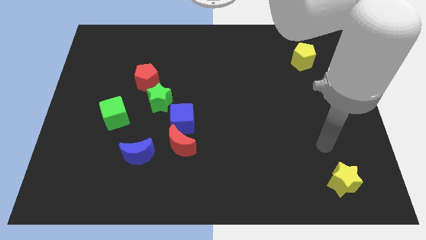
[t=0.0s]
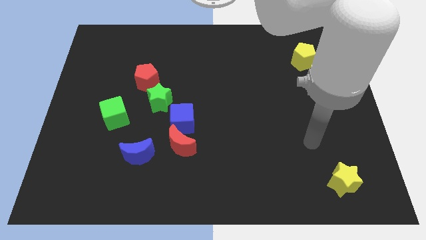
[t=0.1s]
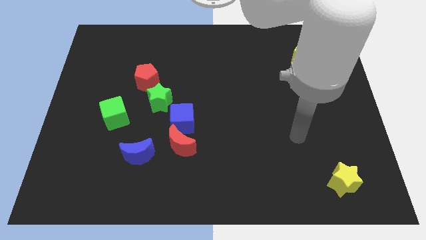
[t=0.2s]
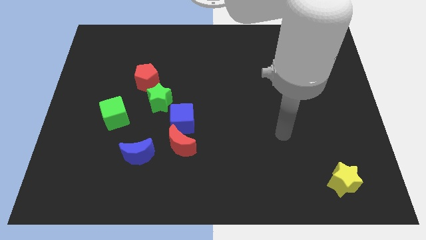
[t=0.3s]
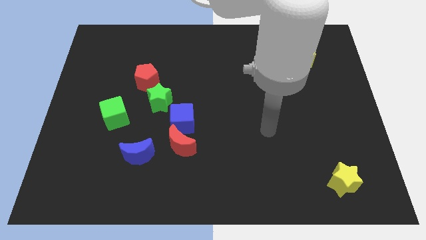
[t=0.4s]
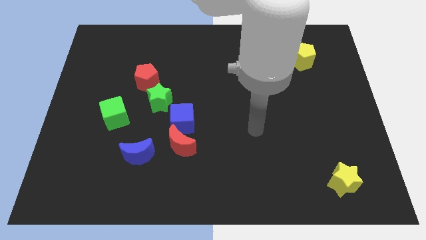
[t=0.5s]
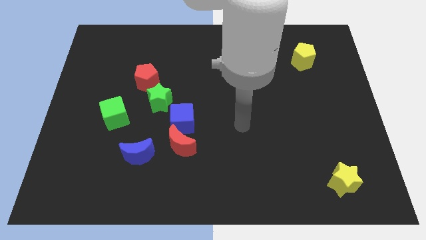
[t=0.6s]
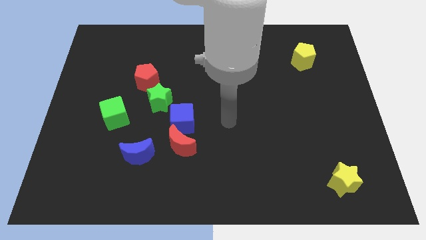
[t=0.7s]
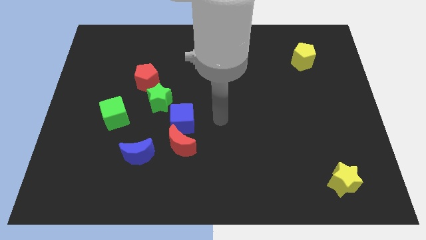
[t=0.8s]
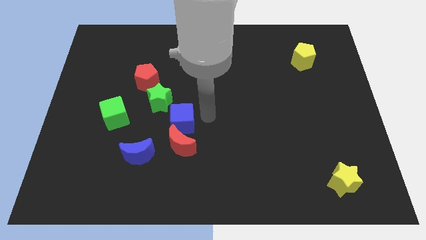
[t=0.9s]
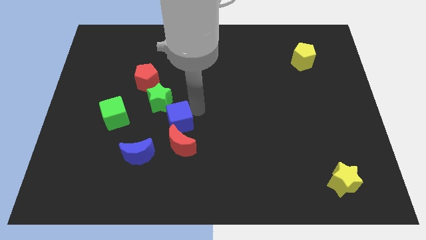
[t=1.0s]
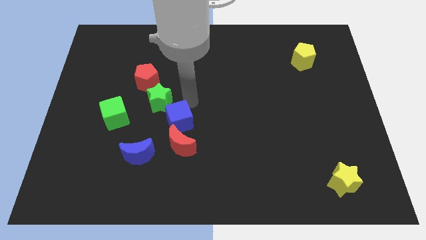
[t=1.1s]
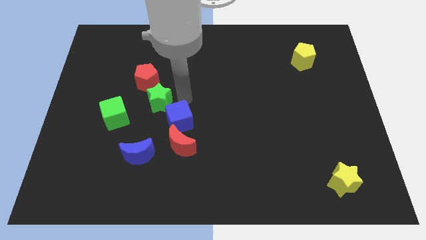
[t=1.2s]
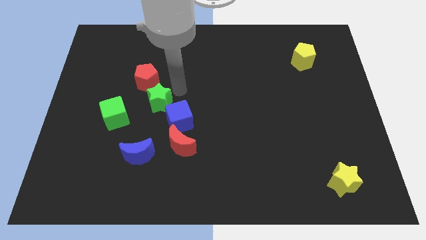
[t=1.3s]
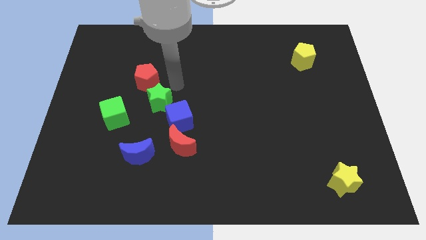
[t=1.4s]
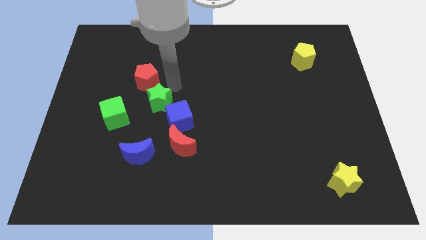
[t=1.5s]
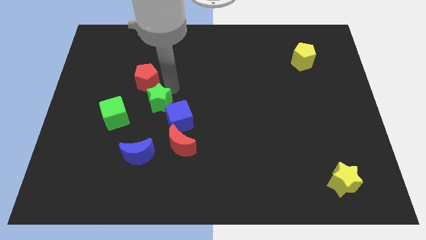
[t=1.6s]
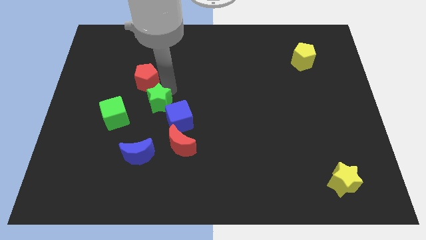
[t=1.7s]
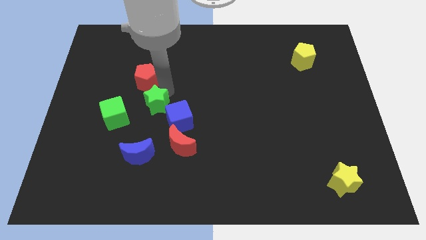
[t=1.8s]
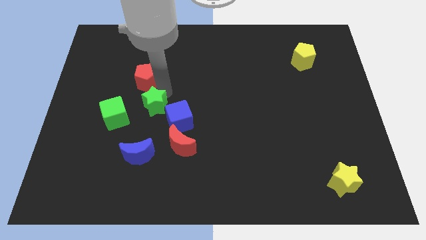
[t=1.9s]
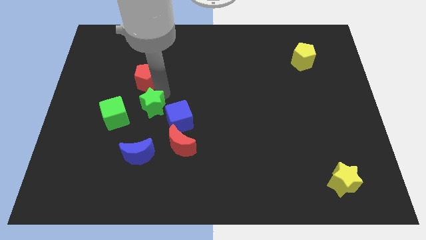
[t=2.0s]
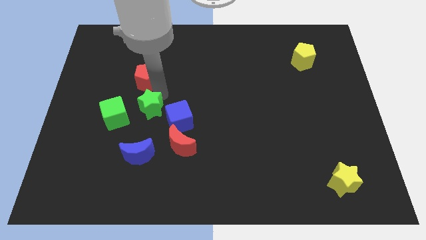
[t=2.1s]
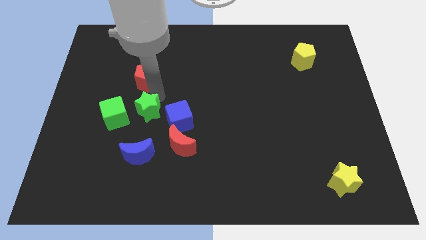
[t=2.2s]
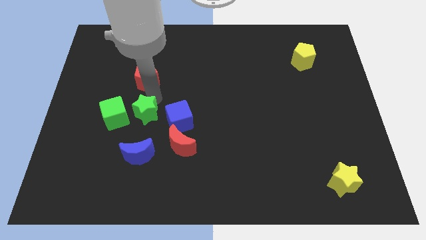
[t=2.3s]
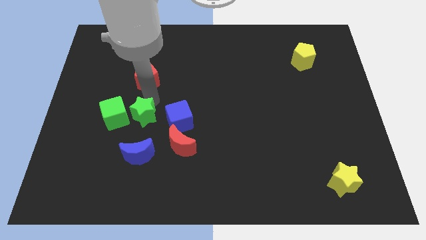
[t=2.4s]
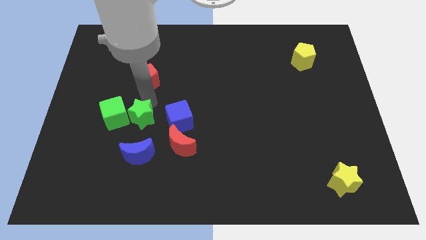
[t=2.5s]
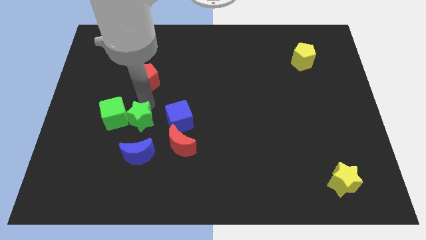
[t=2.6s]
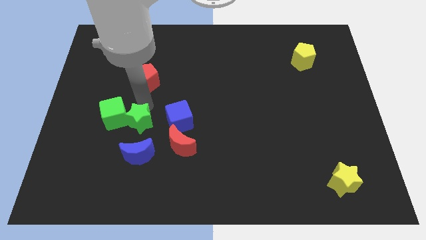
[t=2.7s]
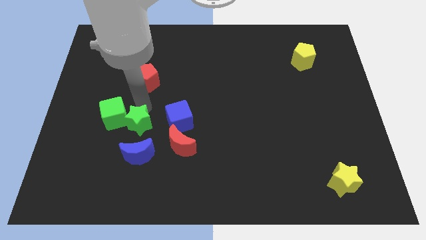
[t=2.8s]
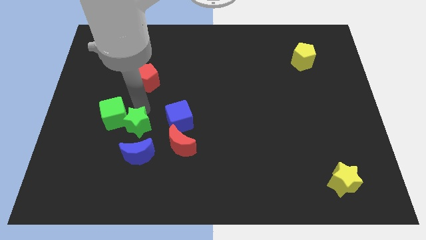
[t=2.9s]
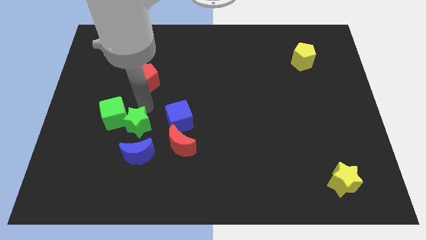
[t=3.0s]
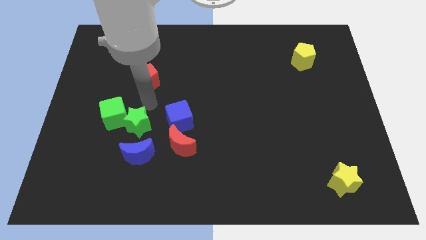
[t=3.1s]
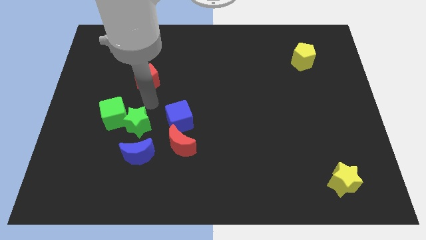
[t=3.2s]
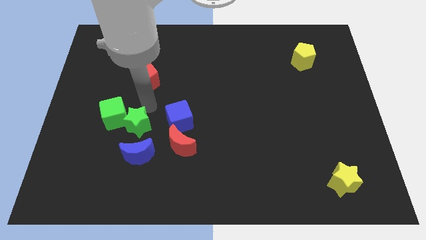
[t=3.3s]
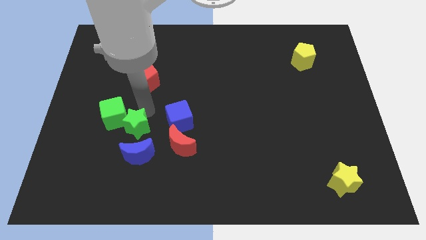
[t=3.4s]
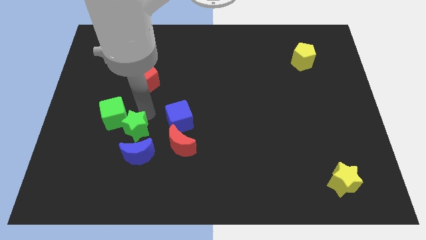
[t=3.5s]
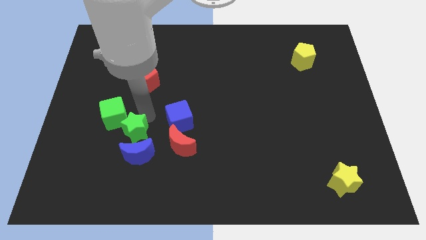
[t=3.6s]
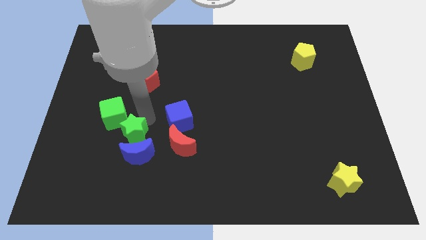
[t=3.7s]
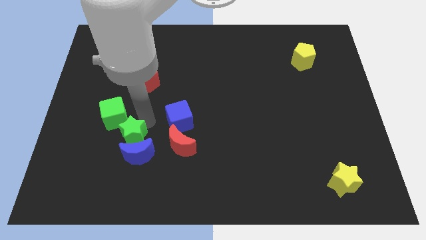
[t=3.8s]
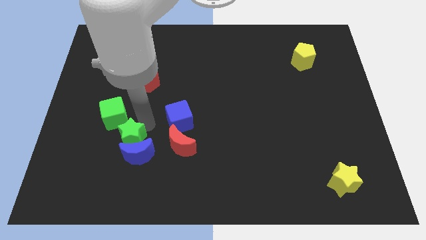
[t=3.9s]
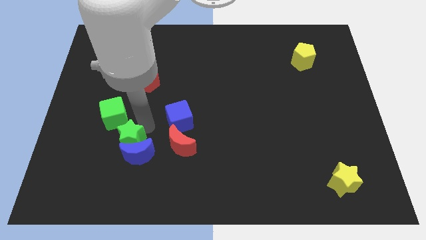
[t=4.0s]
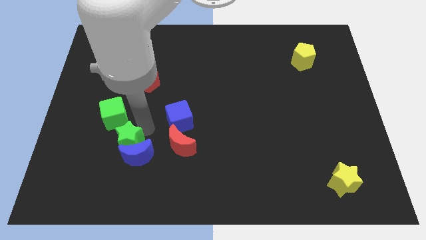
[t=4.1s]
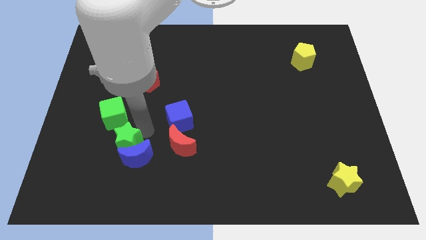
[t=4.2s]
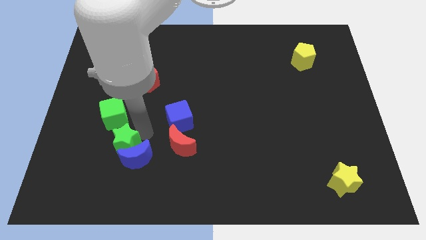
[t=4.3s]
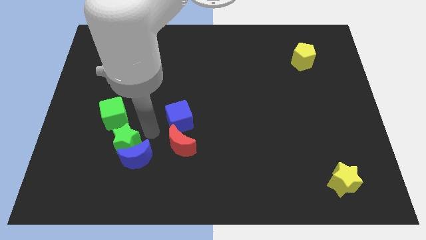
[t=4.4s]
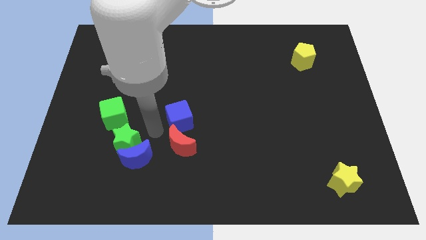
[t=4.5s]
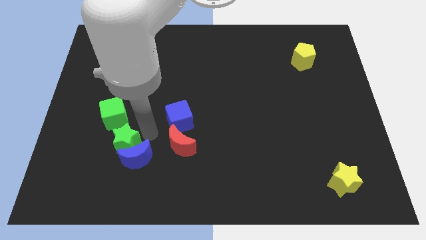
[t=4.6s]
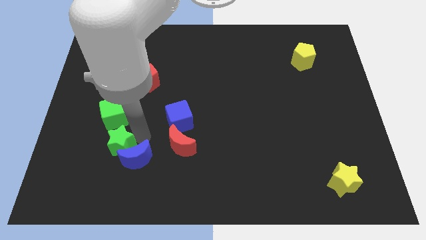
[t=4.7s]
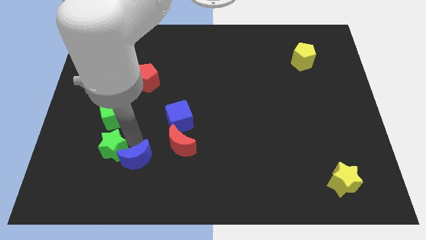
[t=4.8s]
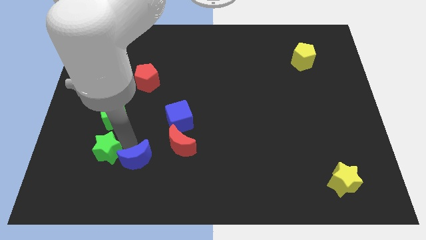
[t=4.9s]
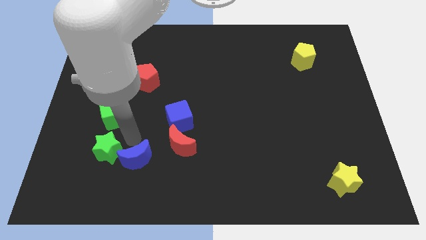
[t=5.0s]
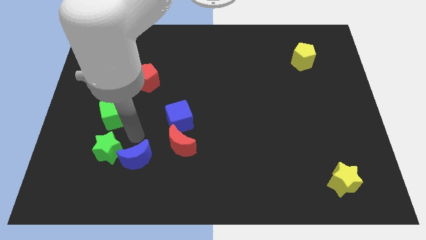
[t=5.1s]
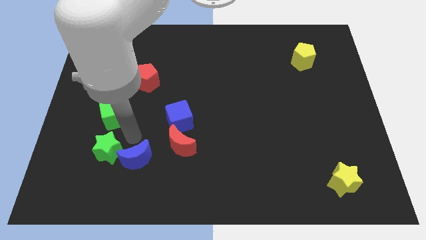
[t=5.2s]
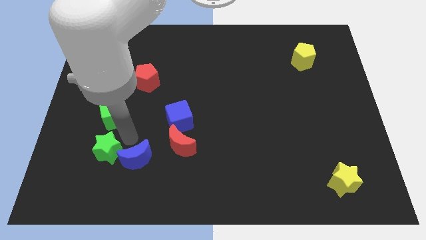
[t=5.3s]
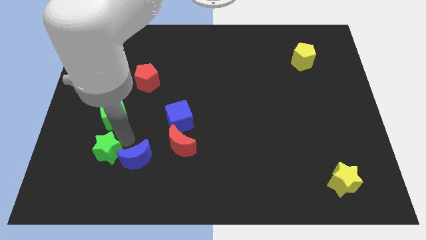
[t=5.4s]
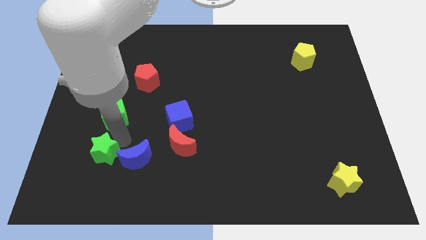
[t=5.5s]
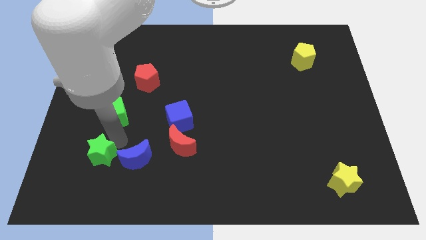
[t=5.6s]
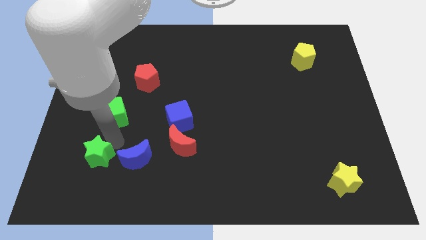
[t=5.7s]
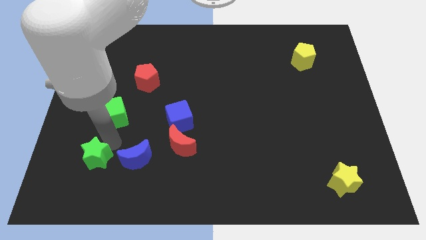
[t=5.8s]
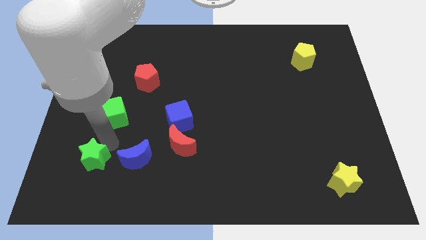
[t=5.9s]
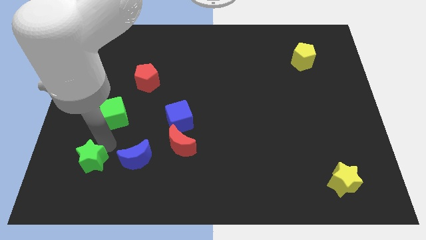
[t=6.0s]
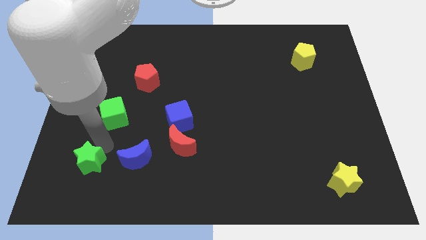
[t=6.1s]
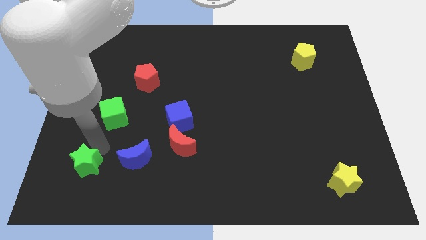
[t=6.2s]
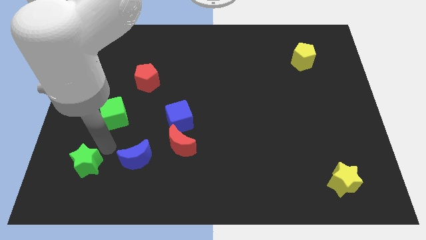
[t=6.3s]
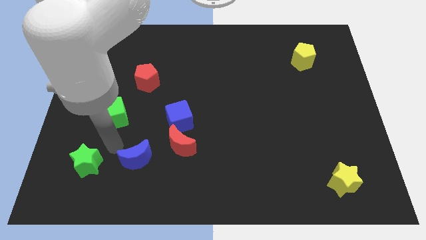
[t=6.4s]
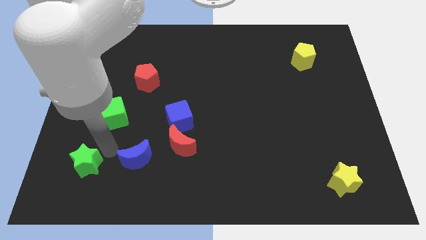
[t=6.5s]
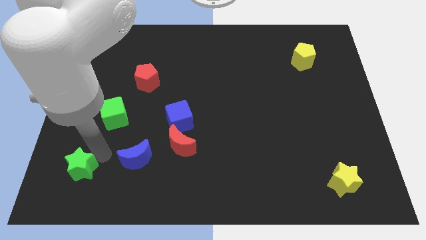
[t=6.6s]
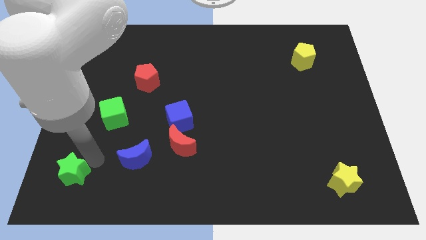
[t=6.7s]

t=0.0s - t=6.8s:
put the green star to the bottom left
